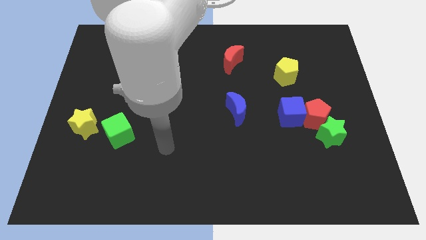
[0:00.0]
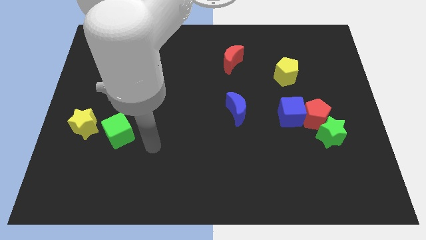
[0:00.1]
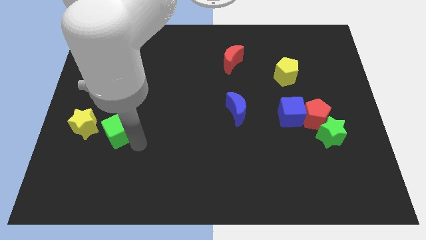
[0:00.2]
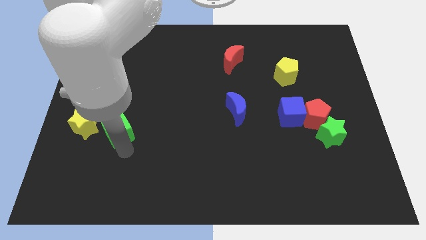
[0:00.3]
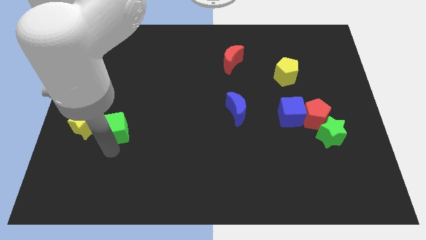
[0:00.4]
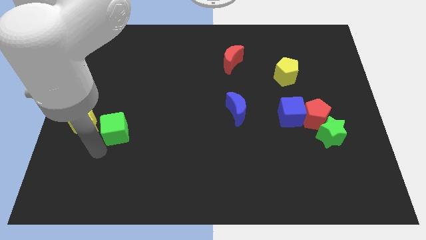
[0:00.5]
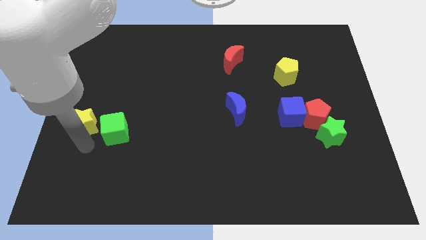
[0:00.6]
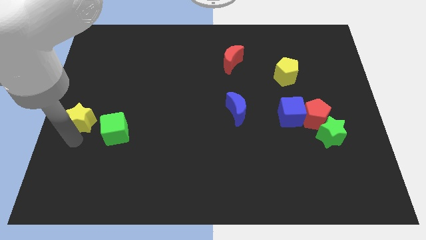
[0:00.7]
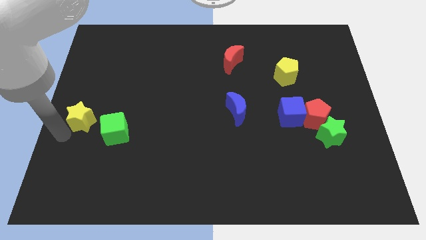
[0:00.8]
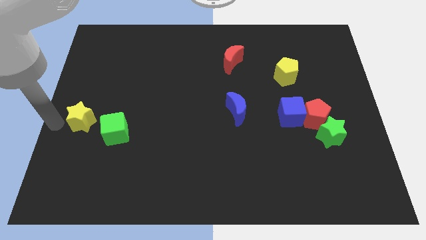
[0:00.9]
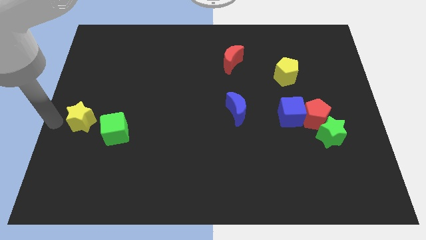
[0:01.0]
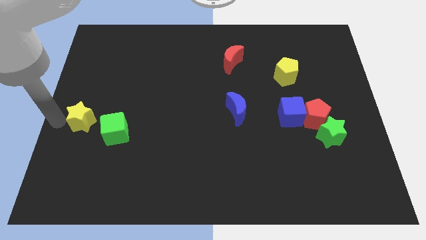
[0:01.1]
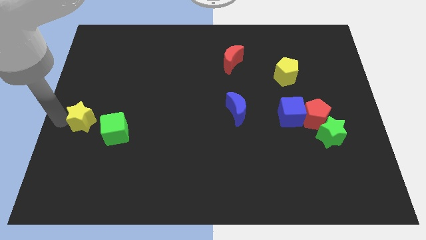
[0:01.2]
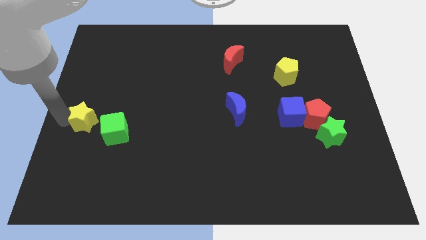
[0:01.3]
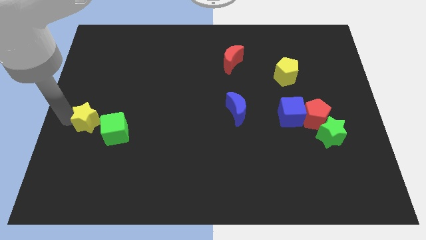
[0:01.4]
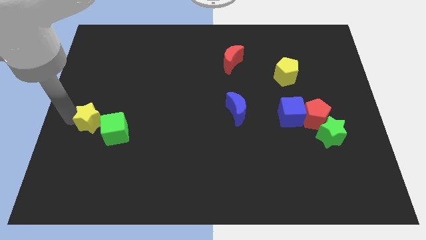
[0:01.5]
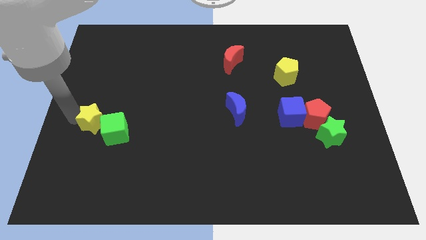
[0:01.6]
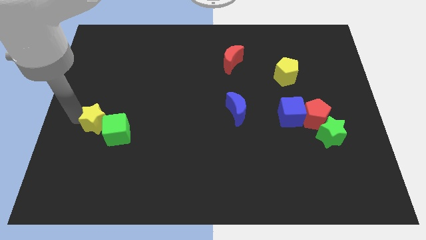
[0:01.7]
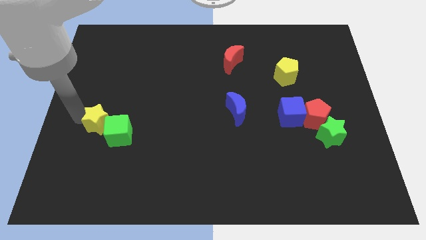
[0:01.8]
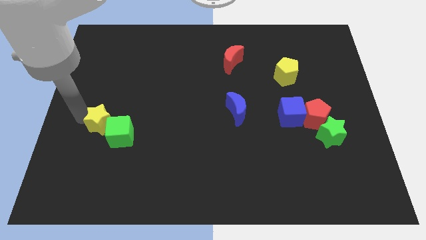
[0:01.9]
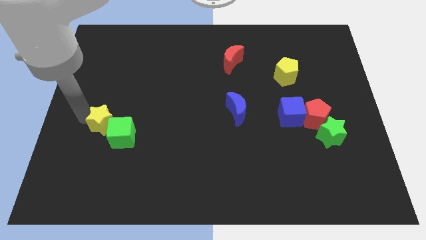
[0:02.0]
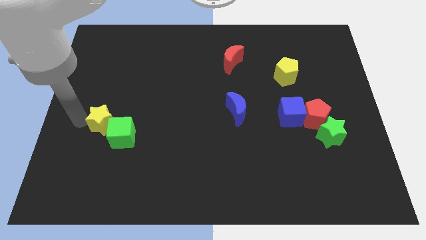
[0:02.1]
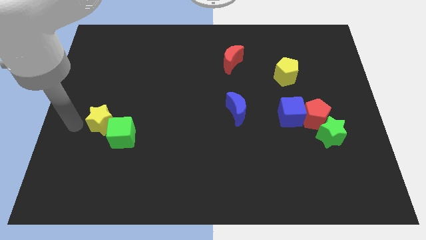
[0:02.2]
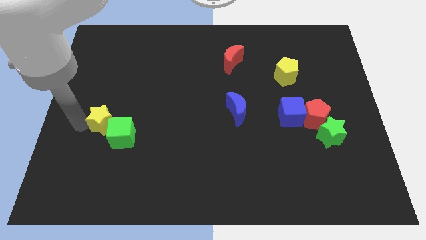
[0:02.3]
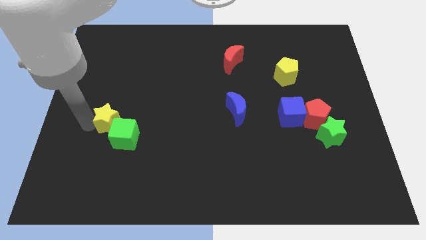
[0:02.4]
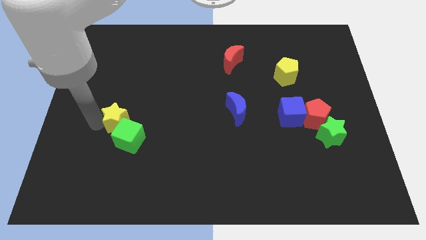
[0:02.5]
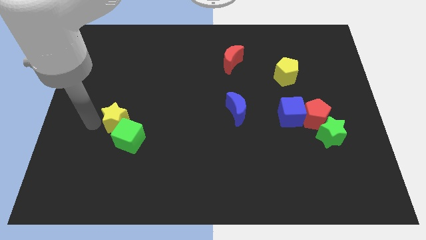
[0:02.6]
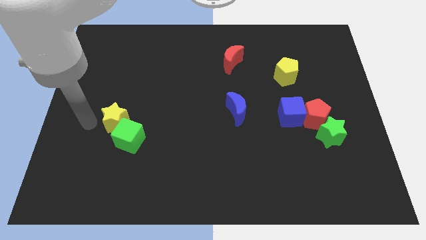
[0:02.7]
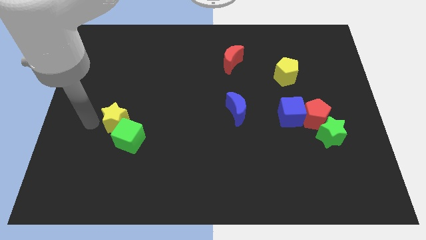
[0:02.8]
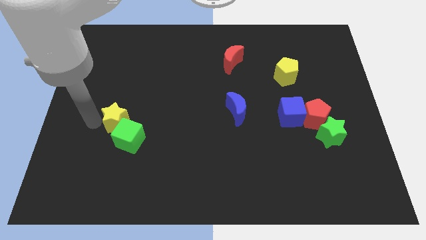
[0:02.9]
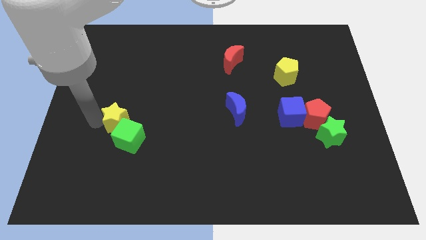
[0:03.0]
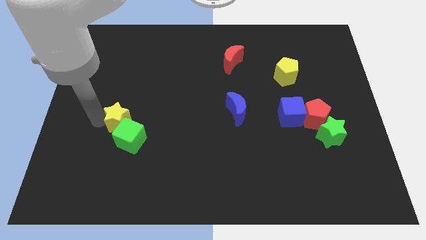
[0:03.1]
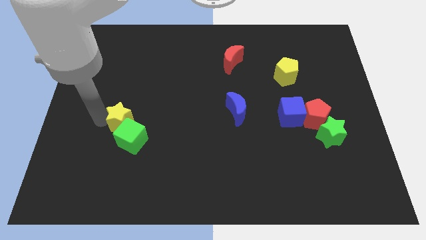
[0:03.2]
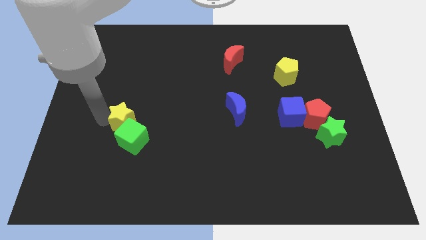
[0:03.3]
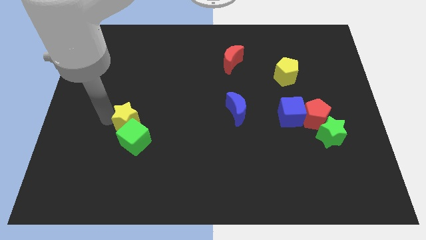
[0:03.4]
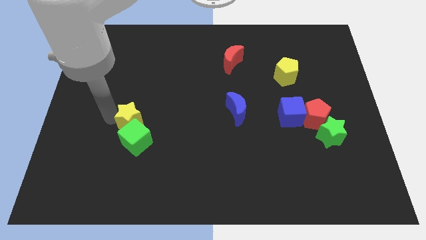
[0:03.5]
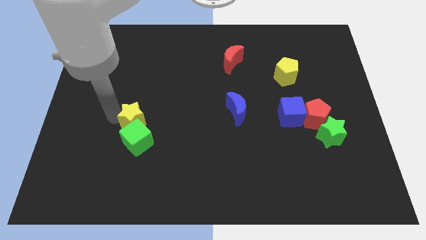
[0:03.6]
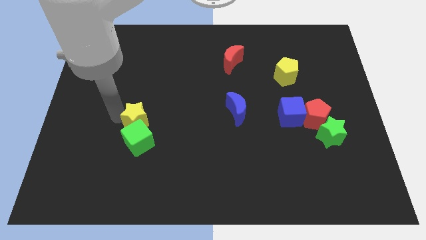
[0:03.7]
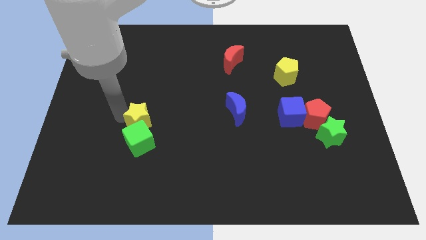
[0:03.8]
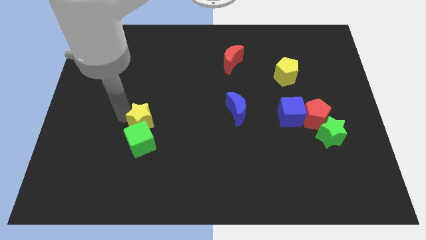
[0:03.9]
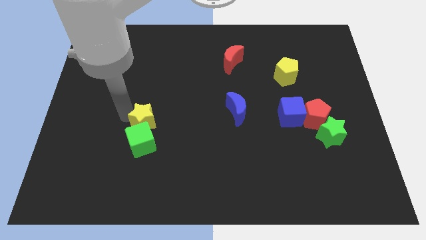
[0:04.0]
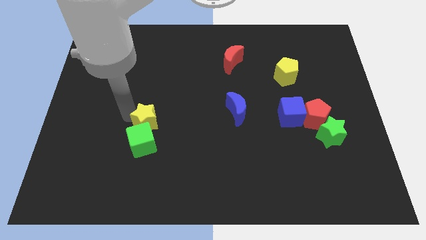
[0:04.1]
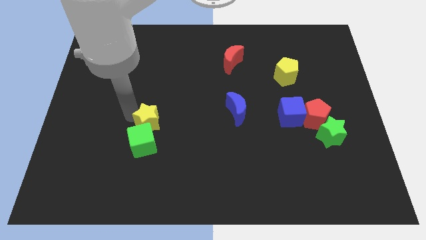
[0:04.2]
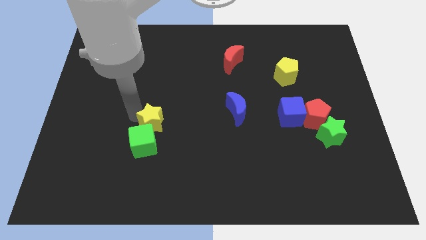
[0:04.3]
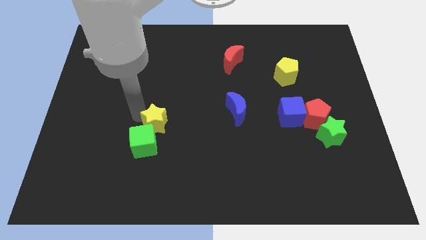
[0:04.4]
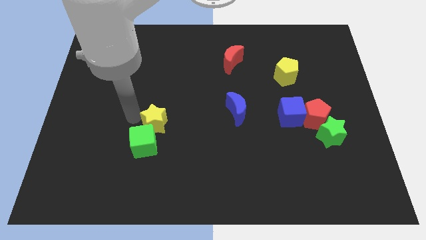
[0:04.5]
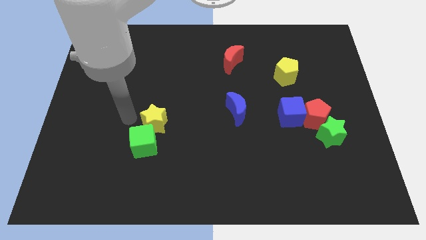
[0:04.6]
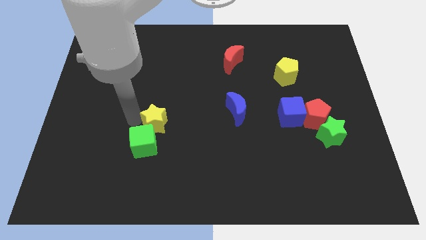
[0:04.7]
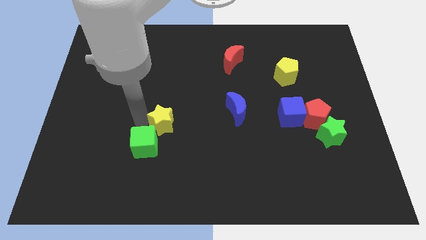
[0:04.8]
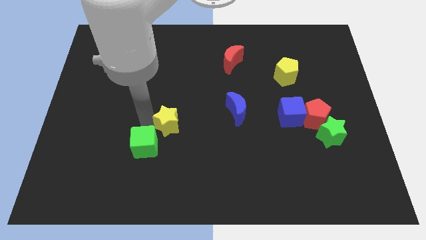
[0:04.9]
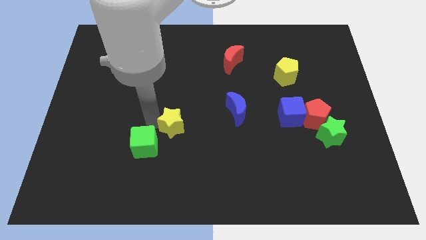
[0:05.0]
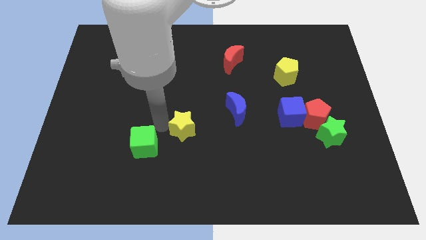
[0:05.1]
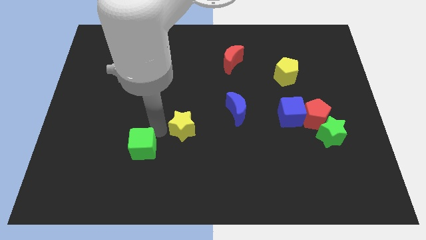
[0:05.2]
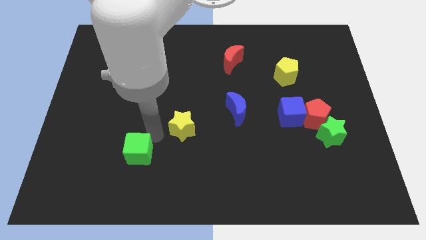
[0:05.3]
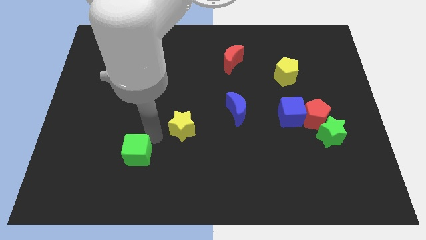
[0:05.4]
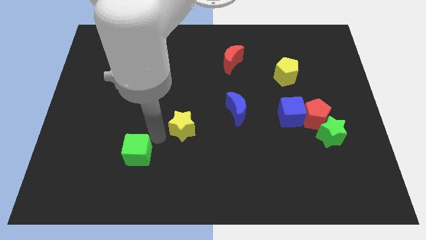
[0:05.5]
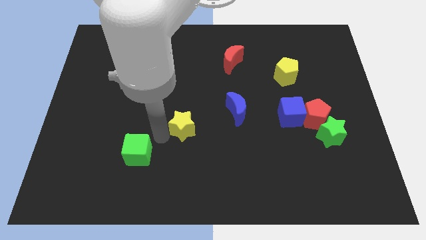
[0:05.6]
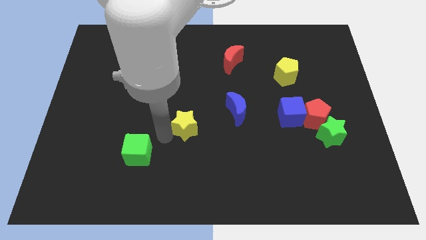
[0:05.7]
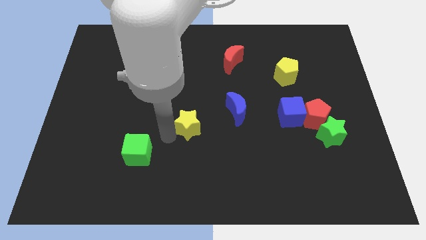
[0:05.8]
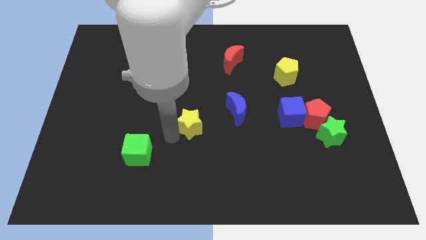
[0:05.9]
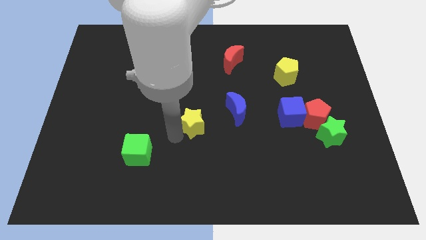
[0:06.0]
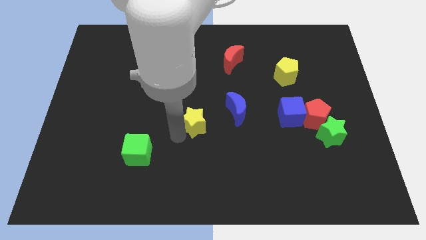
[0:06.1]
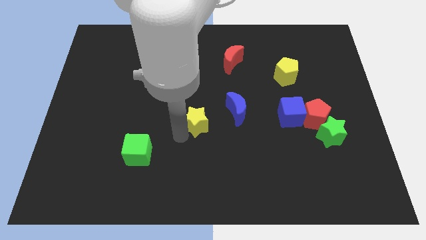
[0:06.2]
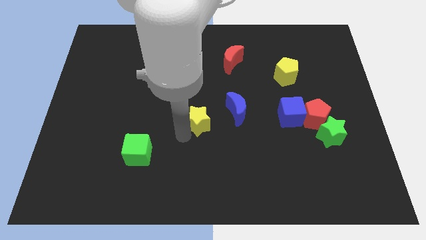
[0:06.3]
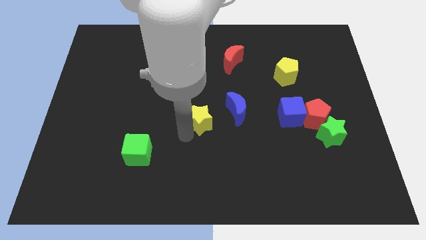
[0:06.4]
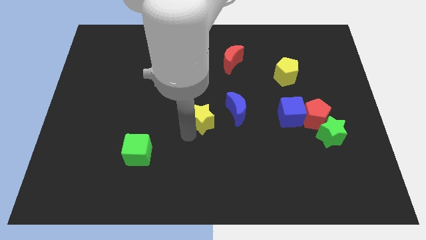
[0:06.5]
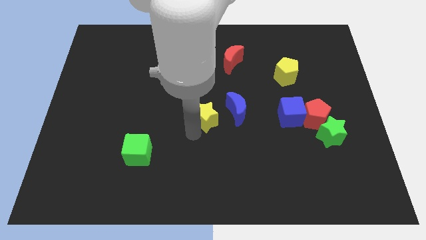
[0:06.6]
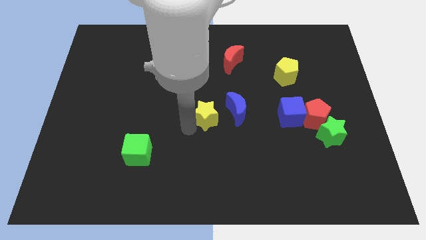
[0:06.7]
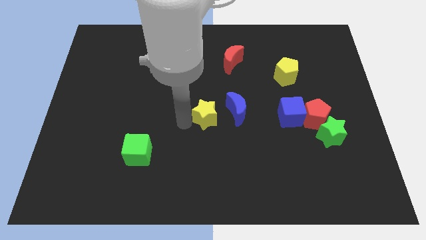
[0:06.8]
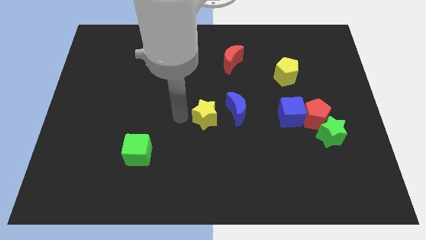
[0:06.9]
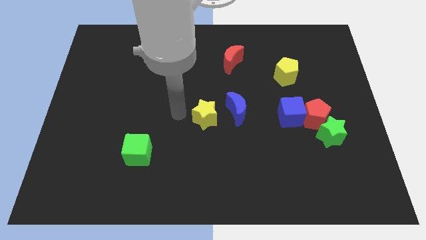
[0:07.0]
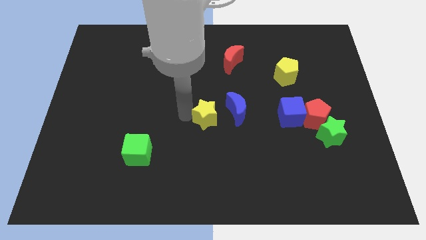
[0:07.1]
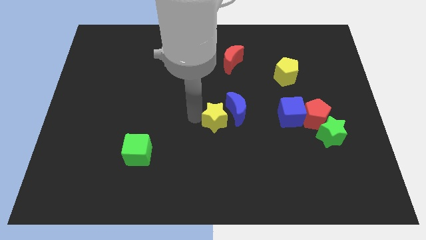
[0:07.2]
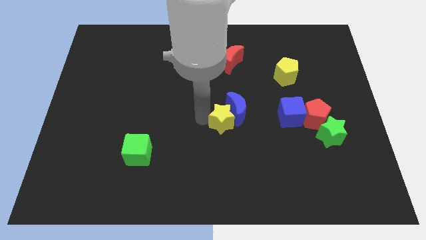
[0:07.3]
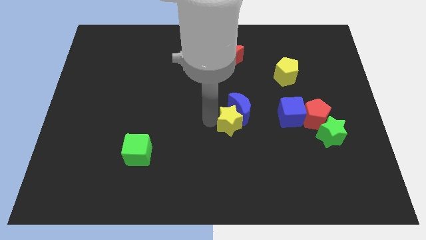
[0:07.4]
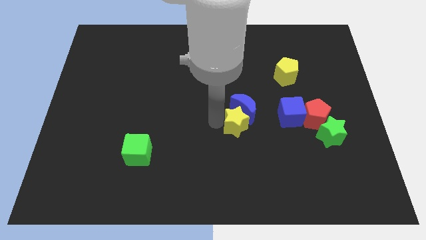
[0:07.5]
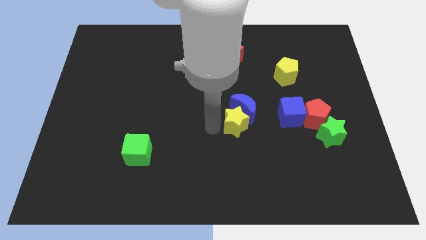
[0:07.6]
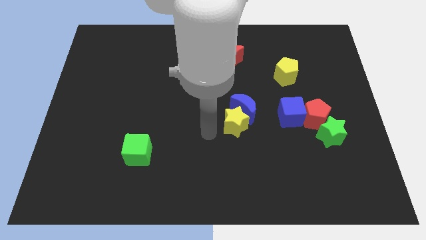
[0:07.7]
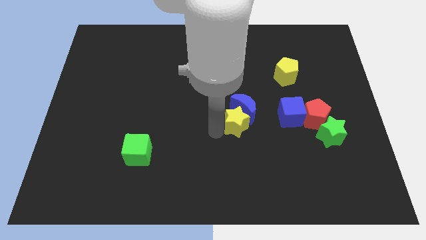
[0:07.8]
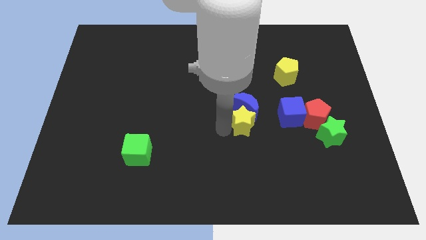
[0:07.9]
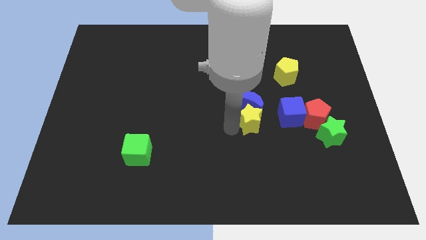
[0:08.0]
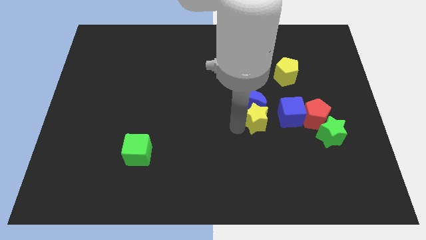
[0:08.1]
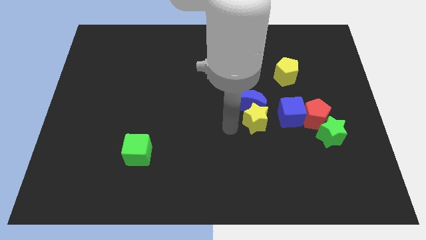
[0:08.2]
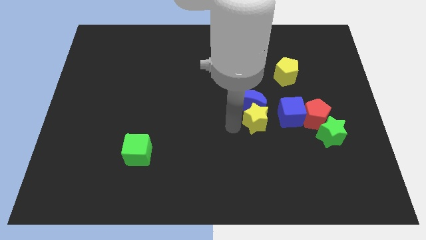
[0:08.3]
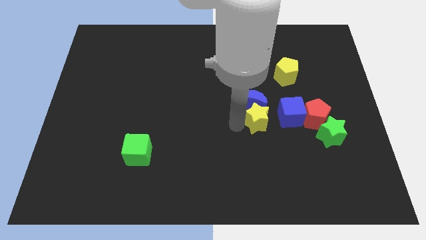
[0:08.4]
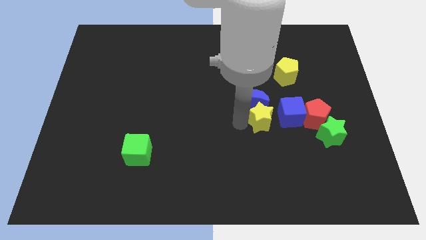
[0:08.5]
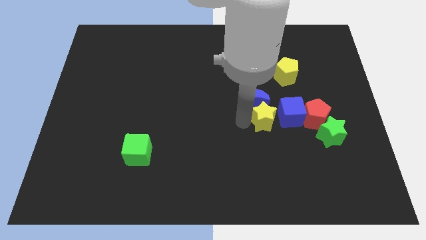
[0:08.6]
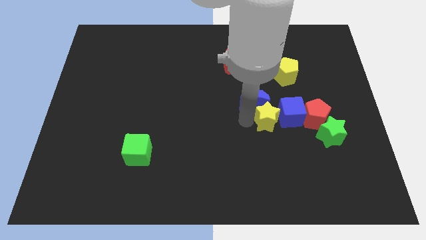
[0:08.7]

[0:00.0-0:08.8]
slide the yellow star close to the blue cube
